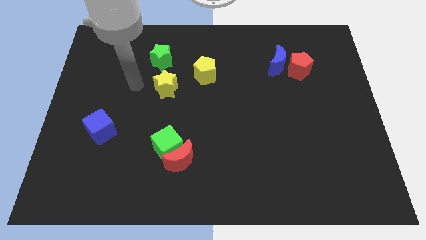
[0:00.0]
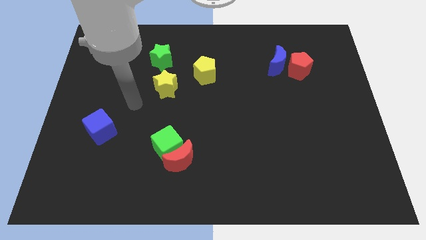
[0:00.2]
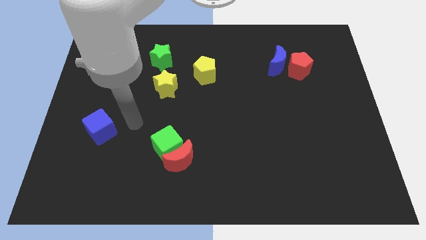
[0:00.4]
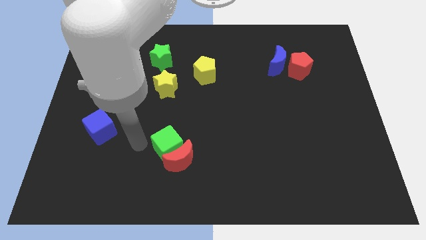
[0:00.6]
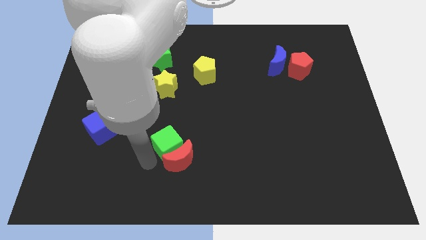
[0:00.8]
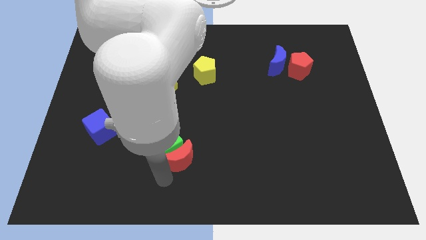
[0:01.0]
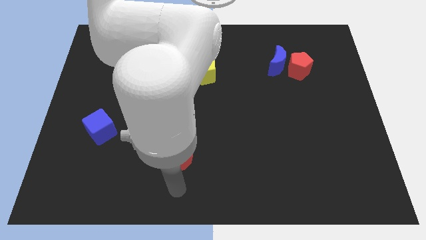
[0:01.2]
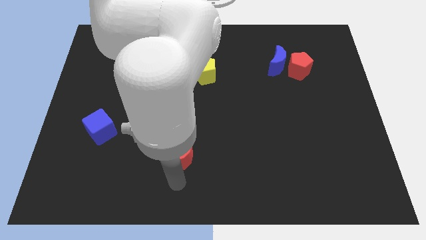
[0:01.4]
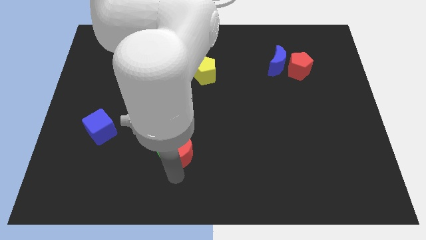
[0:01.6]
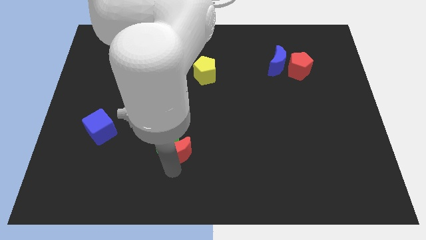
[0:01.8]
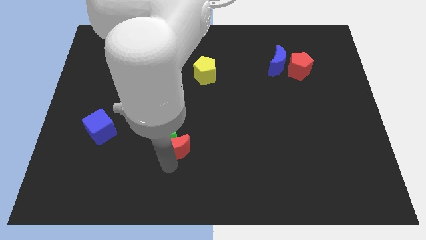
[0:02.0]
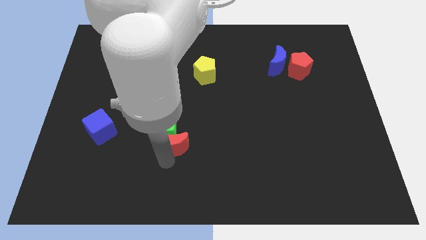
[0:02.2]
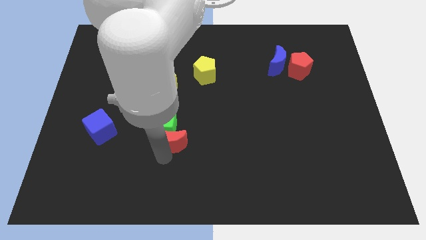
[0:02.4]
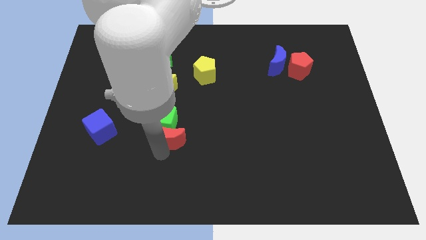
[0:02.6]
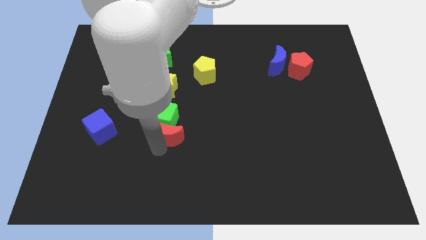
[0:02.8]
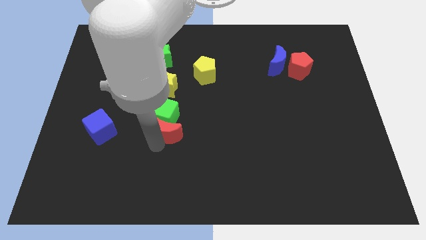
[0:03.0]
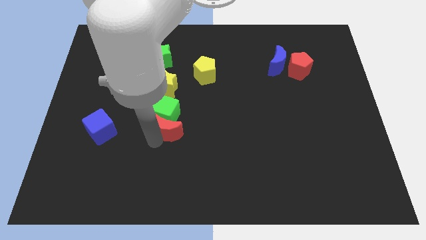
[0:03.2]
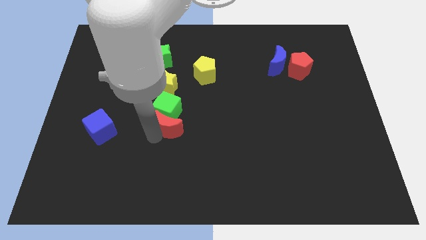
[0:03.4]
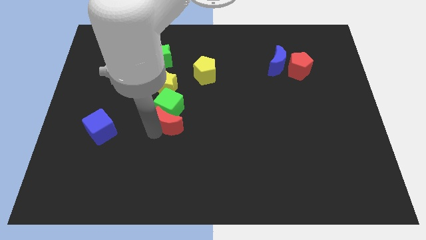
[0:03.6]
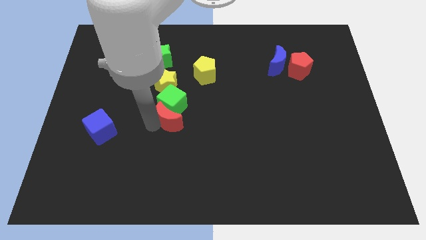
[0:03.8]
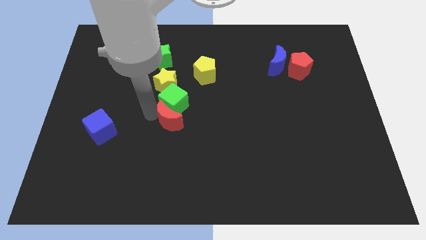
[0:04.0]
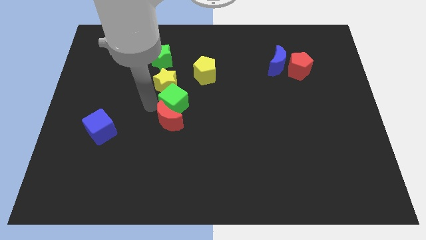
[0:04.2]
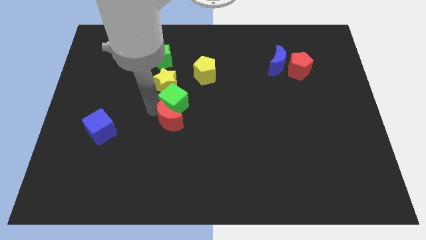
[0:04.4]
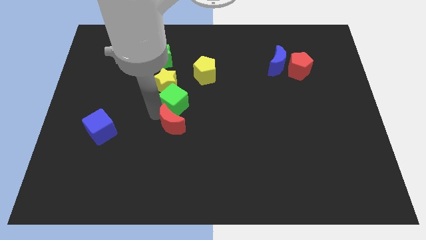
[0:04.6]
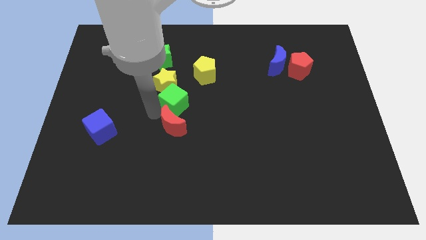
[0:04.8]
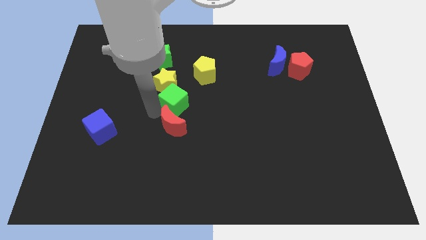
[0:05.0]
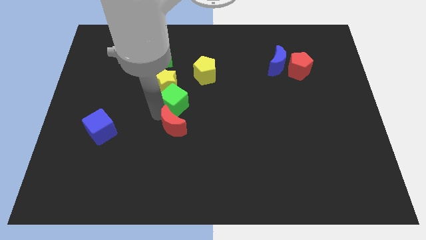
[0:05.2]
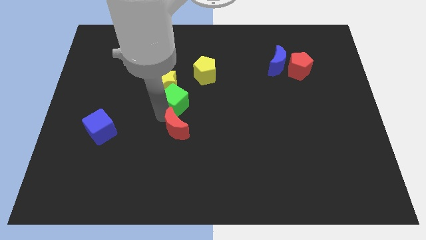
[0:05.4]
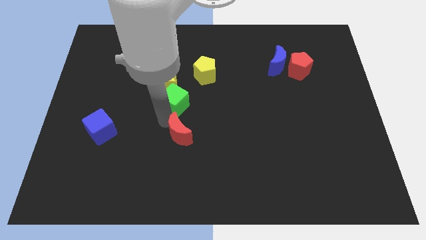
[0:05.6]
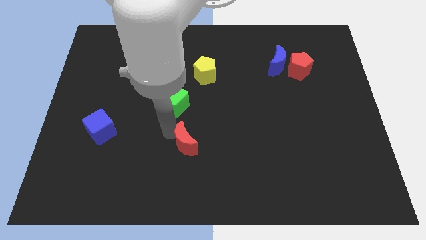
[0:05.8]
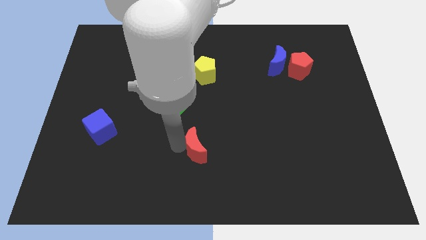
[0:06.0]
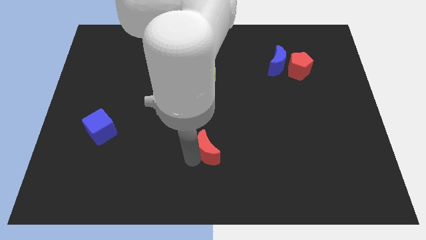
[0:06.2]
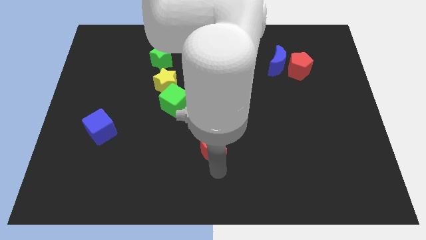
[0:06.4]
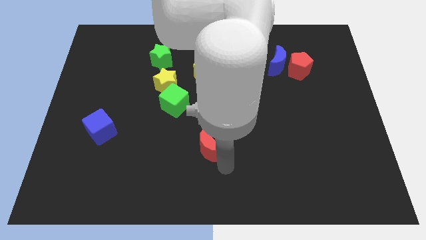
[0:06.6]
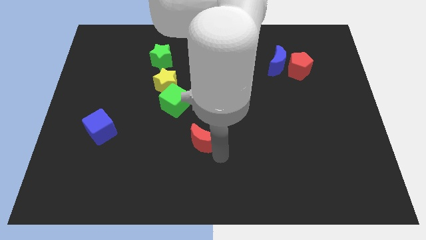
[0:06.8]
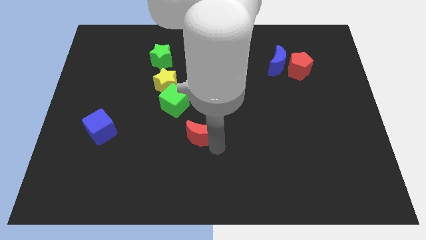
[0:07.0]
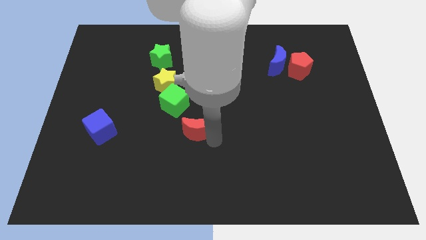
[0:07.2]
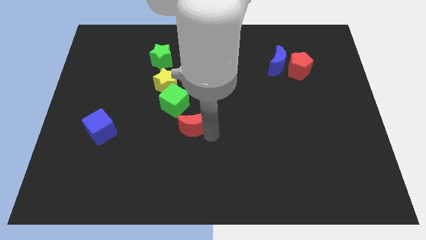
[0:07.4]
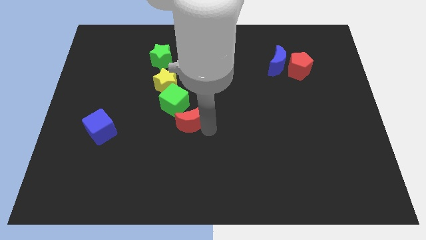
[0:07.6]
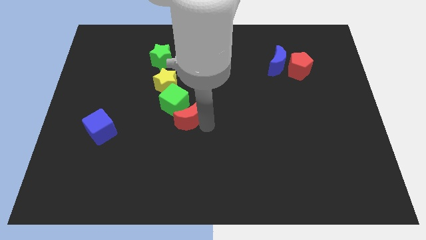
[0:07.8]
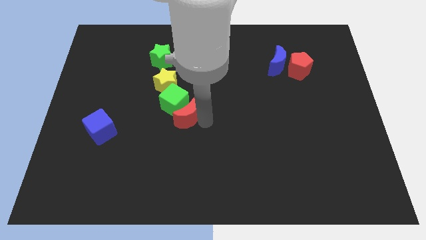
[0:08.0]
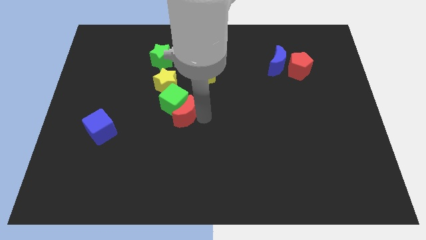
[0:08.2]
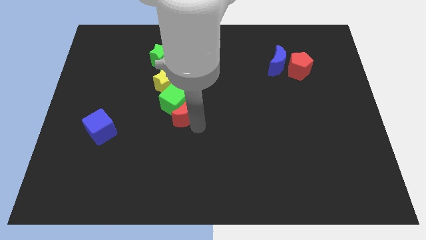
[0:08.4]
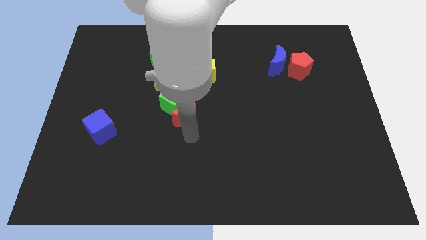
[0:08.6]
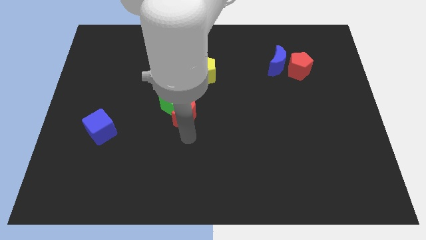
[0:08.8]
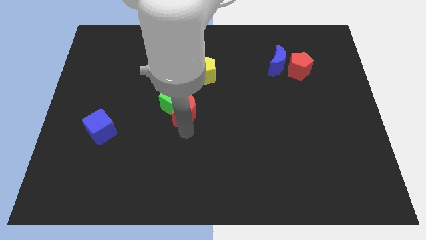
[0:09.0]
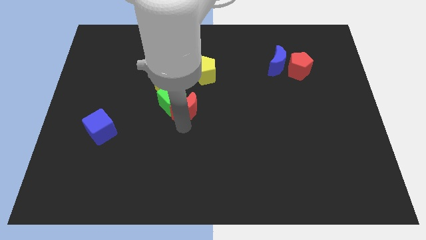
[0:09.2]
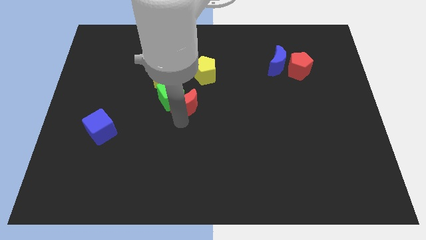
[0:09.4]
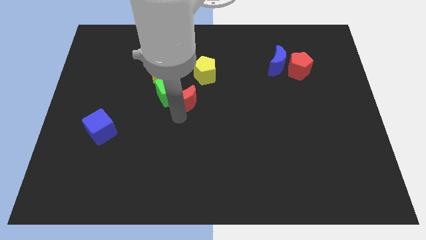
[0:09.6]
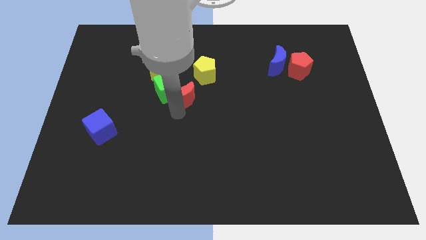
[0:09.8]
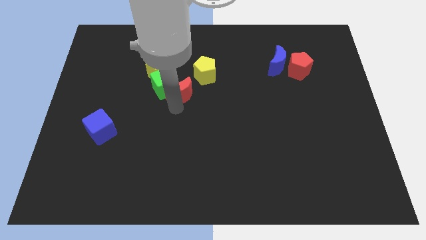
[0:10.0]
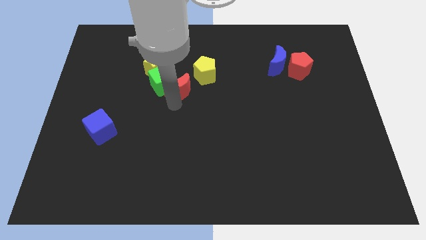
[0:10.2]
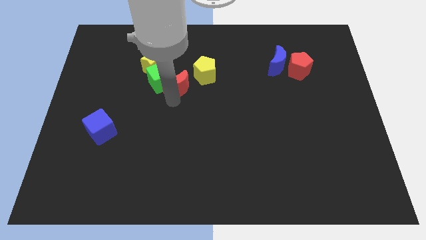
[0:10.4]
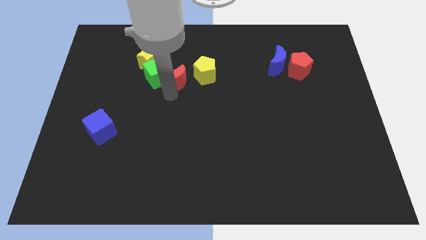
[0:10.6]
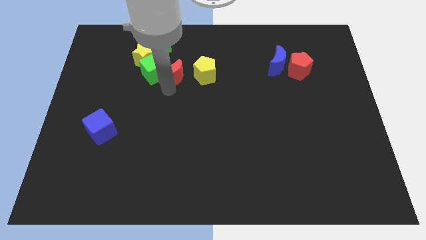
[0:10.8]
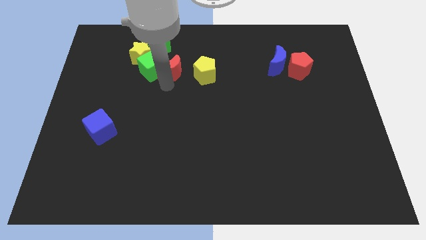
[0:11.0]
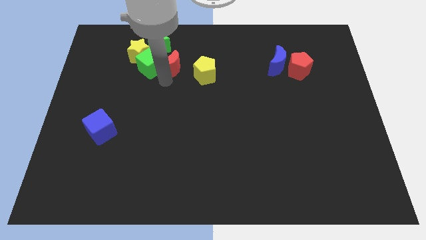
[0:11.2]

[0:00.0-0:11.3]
push the red moon to the top left side of the yellow pentagon

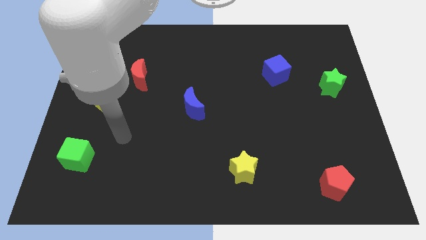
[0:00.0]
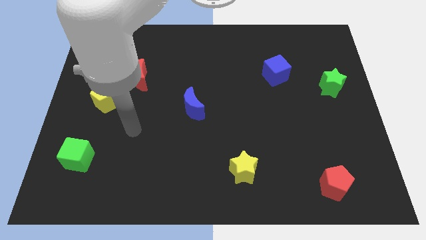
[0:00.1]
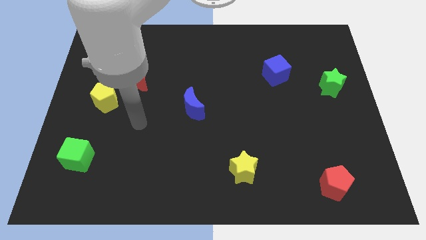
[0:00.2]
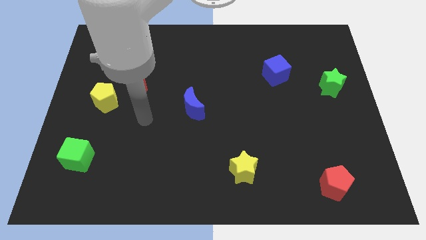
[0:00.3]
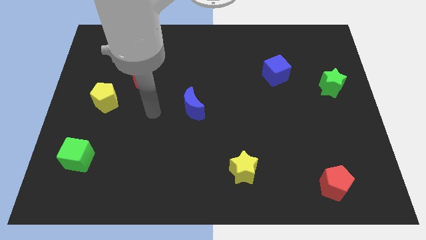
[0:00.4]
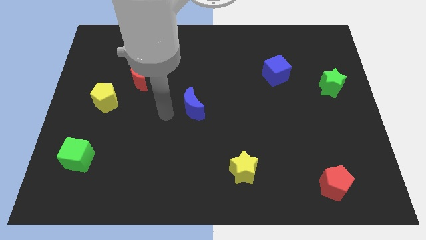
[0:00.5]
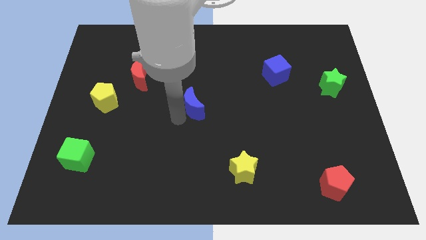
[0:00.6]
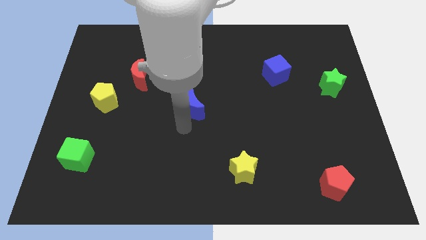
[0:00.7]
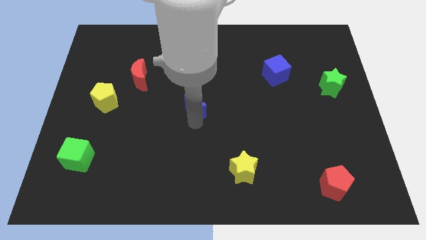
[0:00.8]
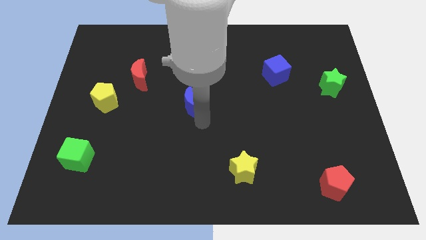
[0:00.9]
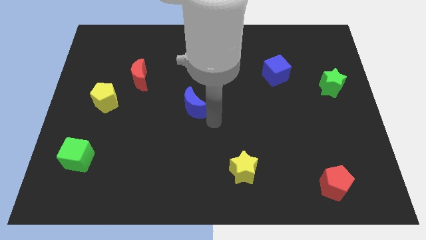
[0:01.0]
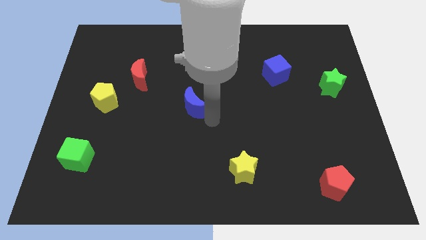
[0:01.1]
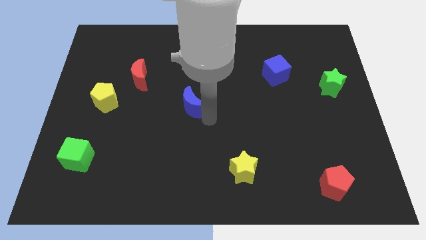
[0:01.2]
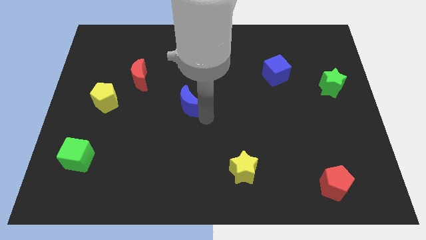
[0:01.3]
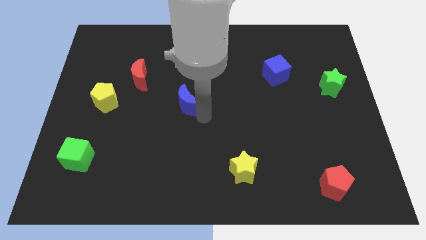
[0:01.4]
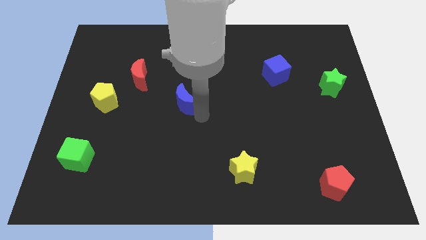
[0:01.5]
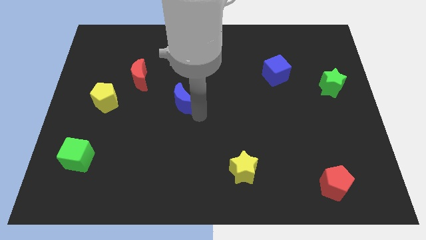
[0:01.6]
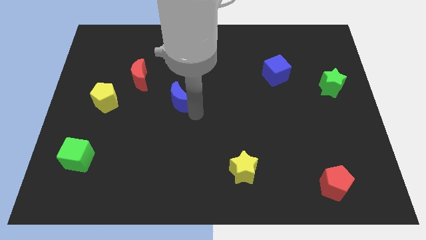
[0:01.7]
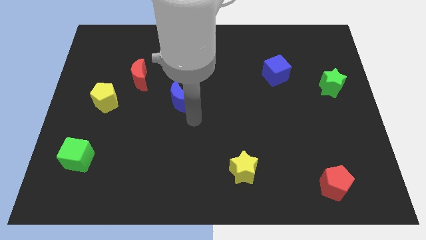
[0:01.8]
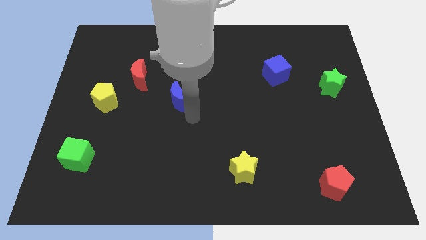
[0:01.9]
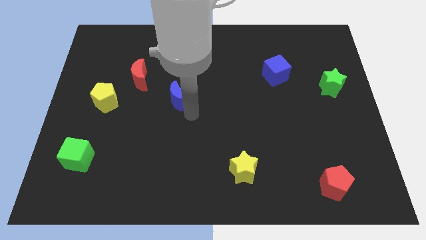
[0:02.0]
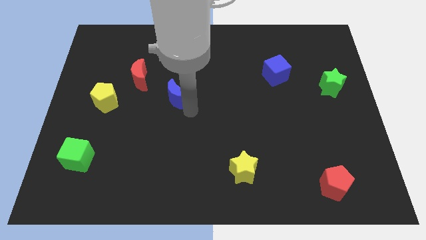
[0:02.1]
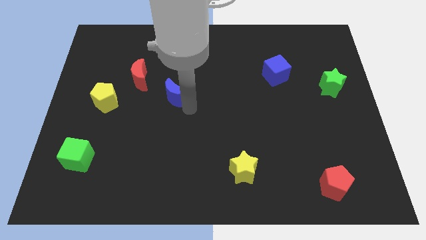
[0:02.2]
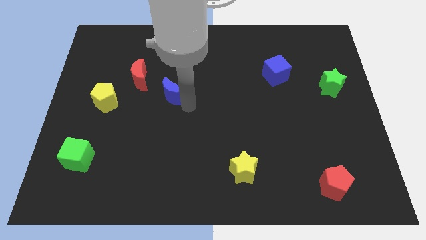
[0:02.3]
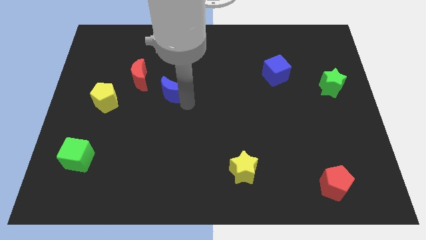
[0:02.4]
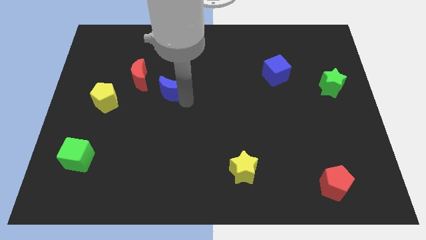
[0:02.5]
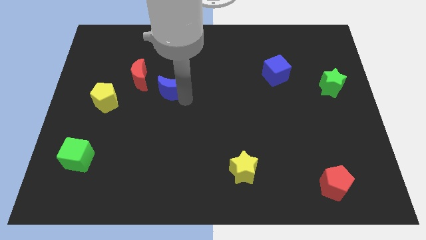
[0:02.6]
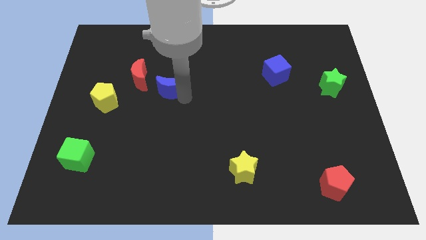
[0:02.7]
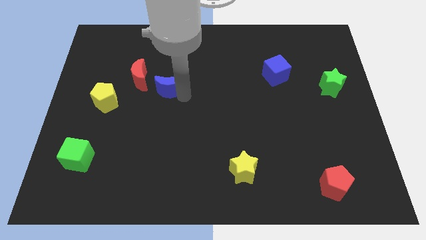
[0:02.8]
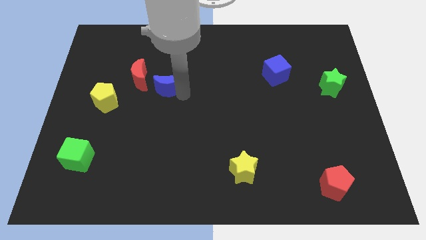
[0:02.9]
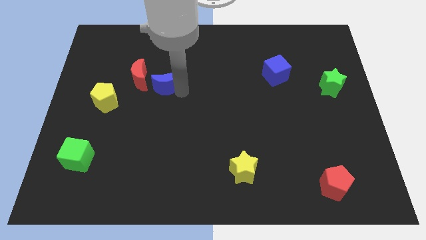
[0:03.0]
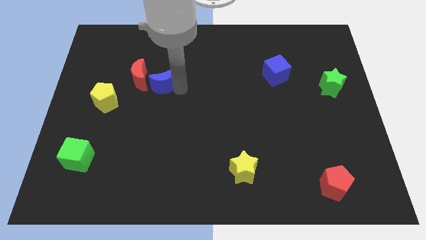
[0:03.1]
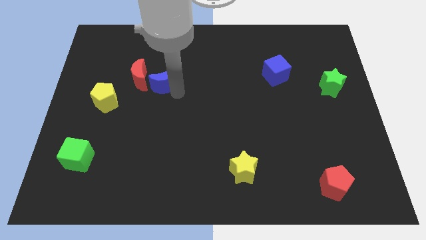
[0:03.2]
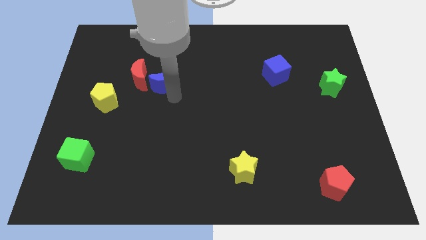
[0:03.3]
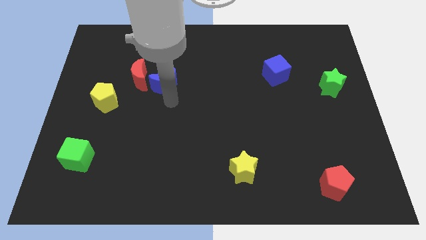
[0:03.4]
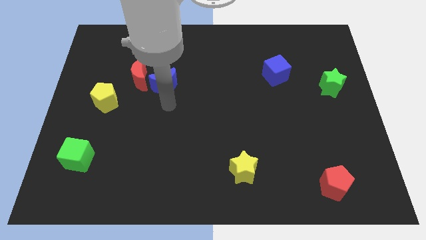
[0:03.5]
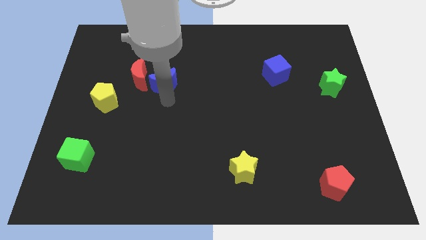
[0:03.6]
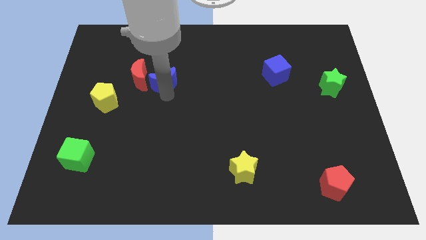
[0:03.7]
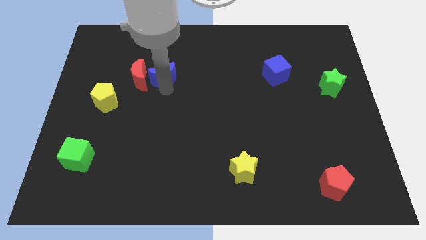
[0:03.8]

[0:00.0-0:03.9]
move the blue moon to the top right of the red moon
